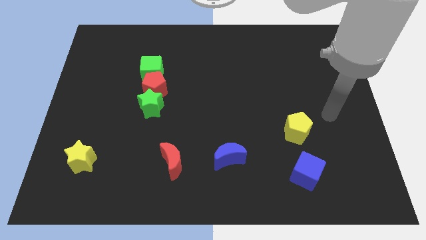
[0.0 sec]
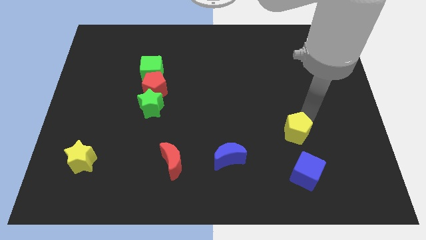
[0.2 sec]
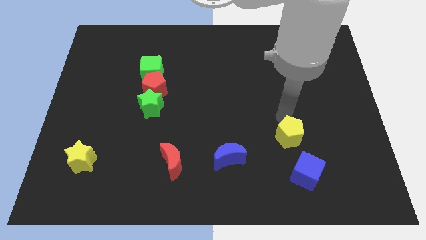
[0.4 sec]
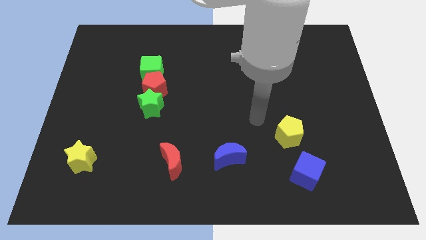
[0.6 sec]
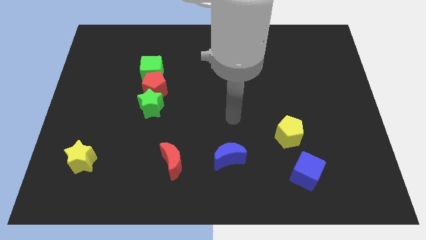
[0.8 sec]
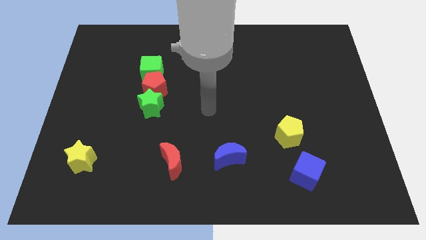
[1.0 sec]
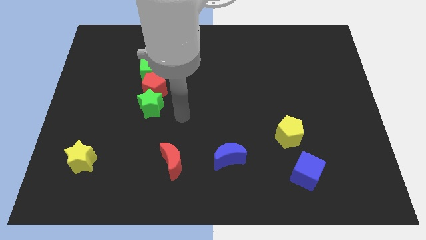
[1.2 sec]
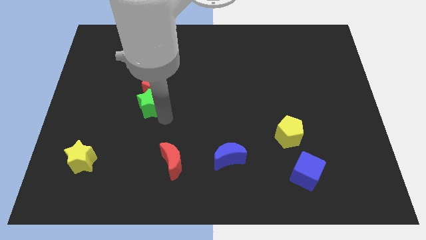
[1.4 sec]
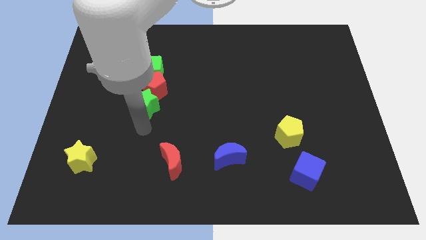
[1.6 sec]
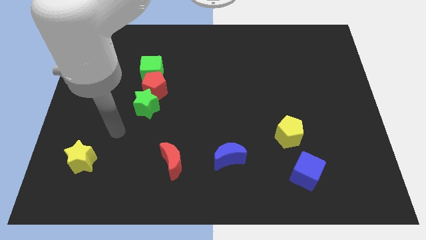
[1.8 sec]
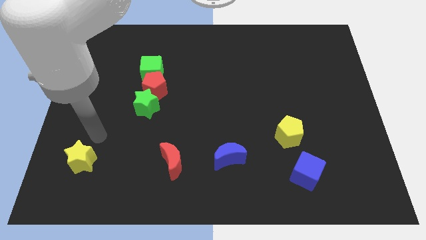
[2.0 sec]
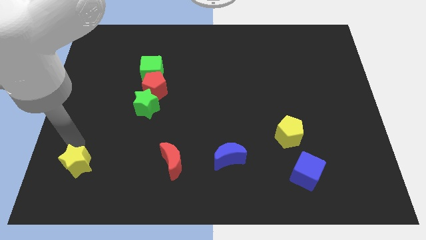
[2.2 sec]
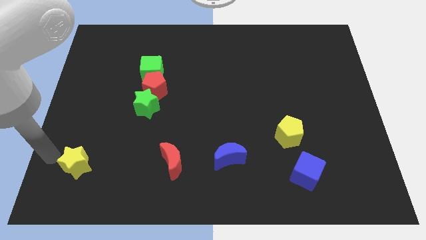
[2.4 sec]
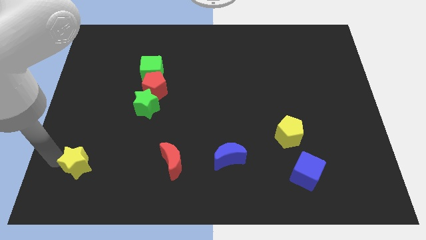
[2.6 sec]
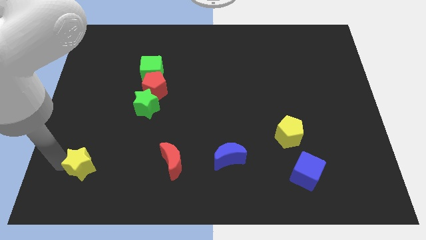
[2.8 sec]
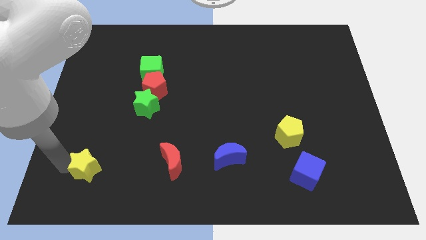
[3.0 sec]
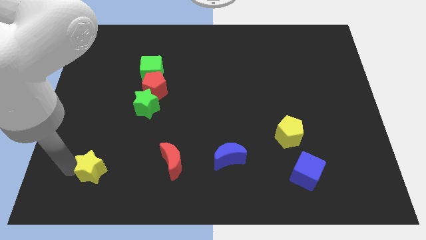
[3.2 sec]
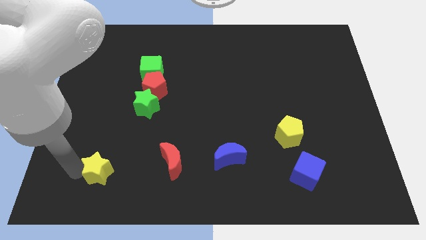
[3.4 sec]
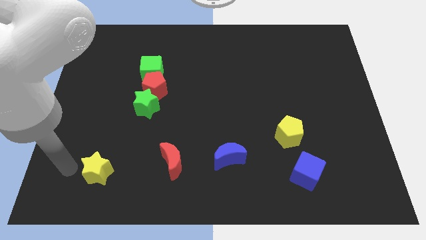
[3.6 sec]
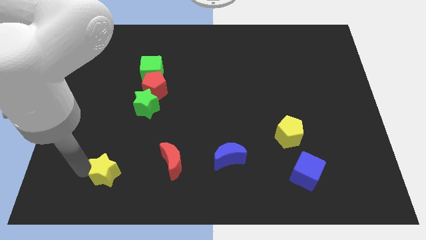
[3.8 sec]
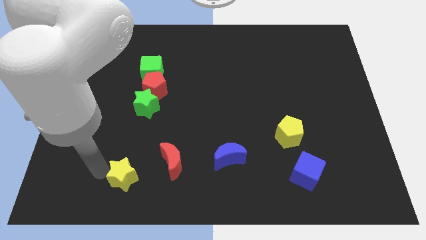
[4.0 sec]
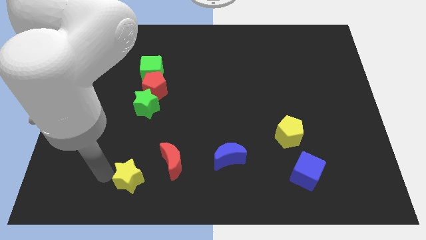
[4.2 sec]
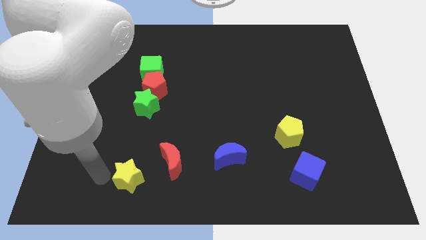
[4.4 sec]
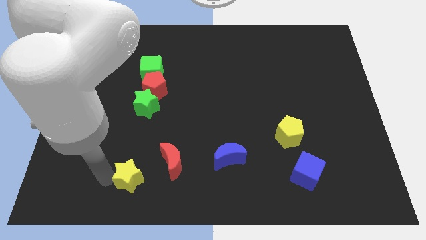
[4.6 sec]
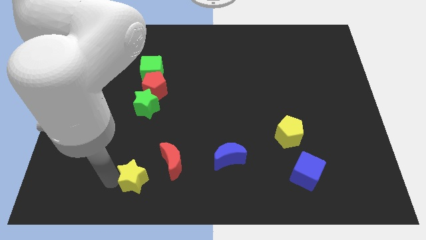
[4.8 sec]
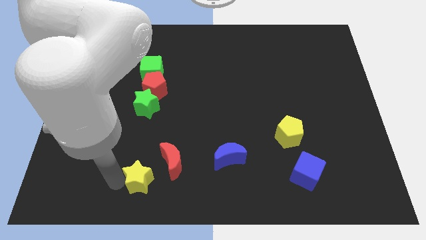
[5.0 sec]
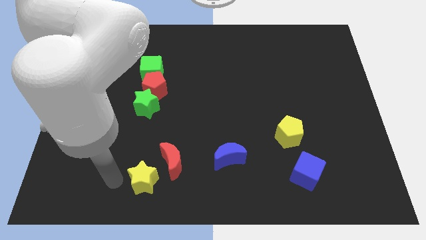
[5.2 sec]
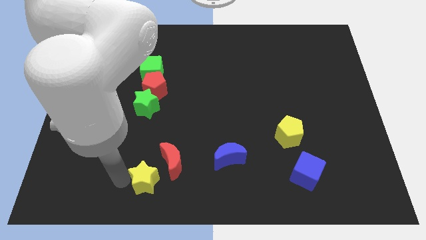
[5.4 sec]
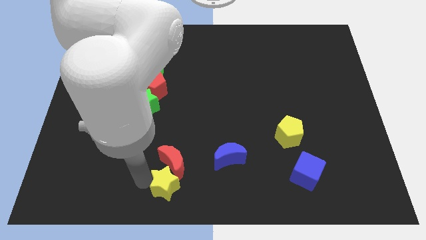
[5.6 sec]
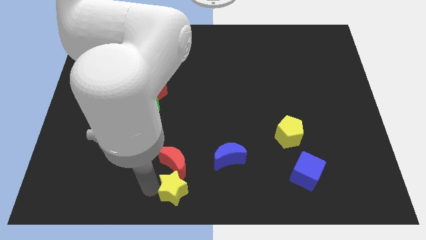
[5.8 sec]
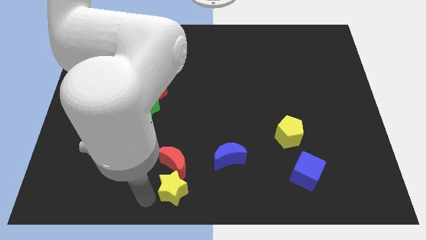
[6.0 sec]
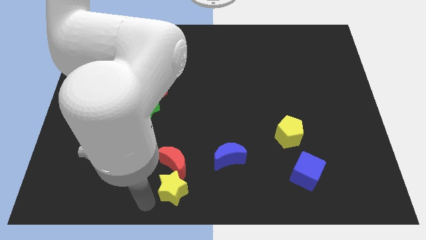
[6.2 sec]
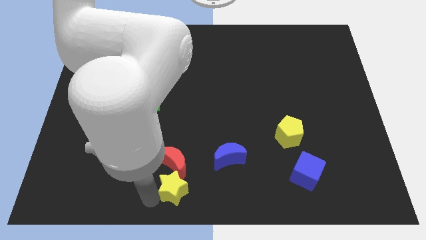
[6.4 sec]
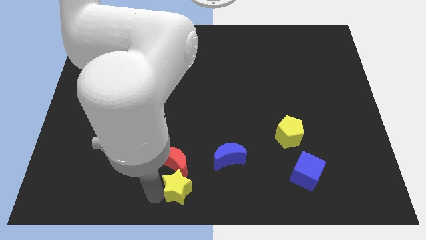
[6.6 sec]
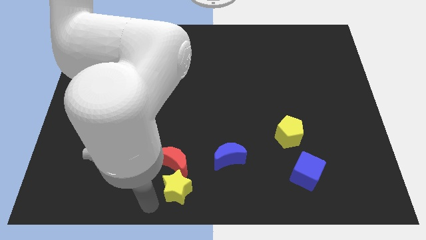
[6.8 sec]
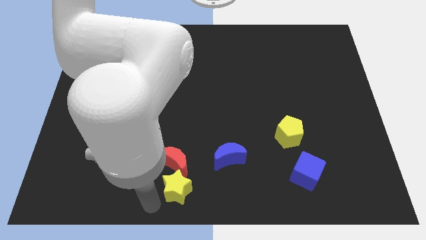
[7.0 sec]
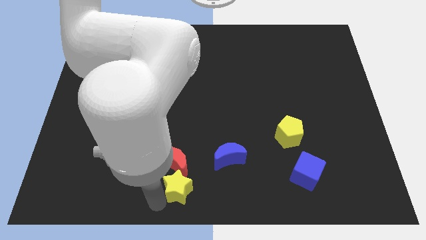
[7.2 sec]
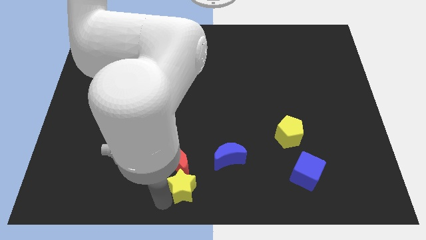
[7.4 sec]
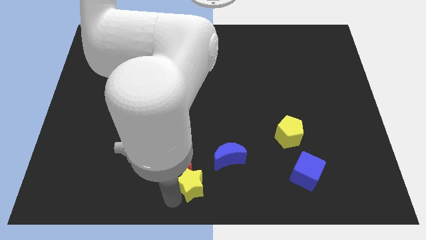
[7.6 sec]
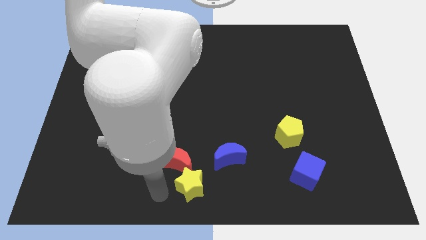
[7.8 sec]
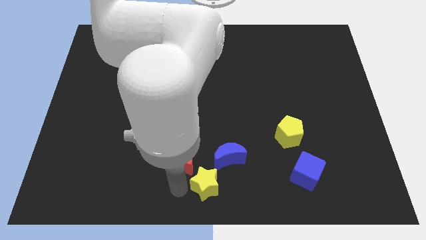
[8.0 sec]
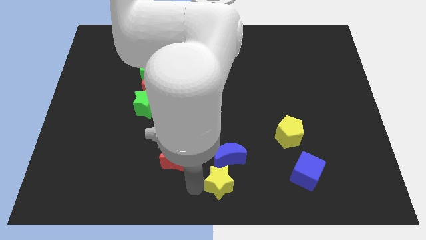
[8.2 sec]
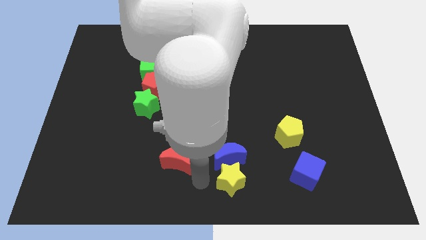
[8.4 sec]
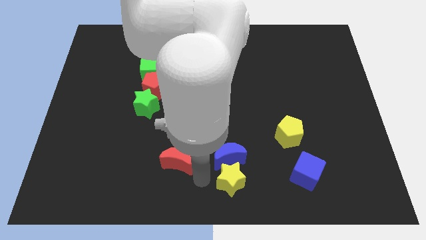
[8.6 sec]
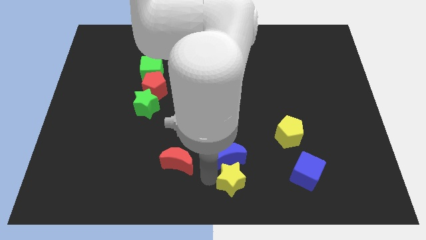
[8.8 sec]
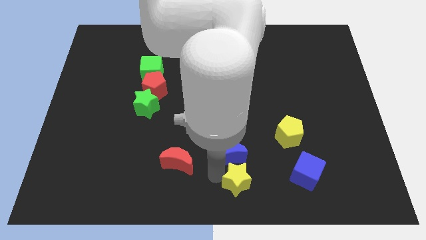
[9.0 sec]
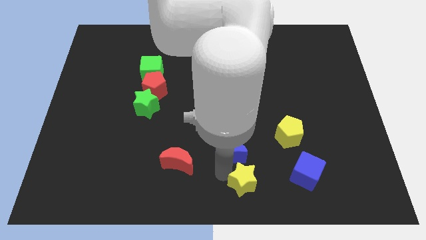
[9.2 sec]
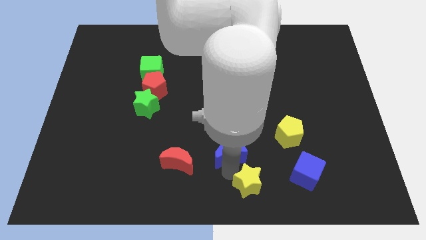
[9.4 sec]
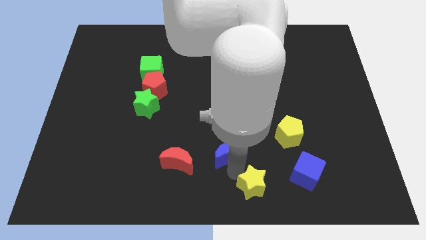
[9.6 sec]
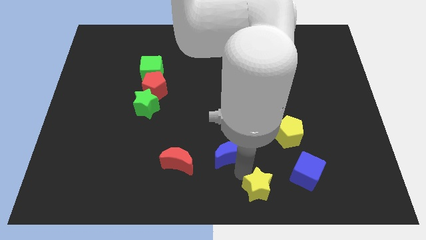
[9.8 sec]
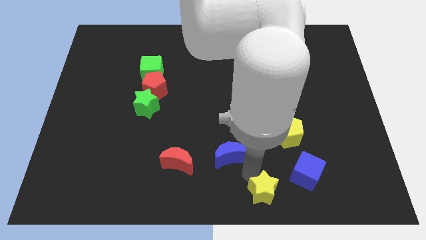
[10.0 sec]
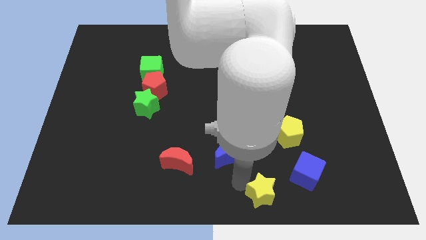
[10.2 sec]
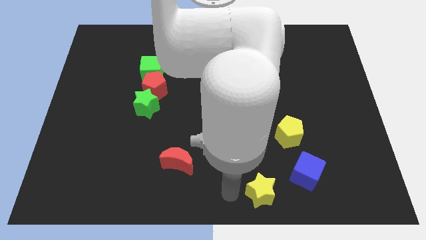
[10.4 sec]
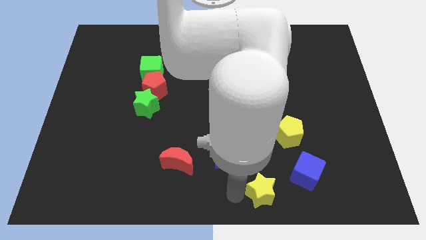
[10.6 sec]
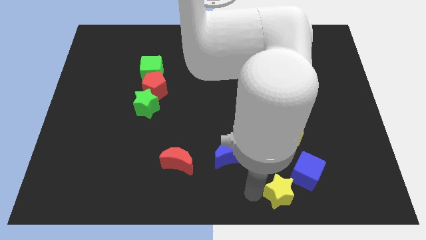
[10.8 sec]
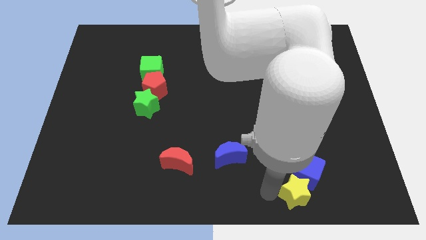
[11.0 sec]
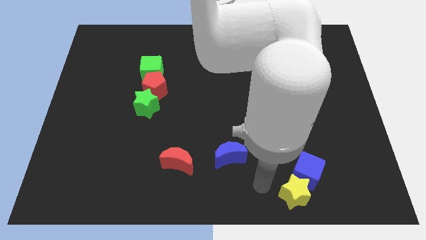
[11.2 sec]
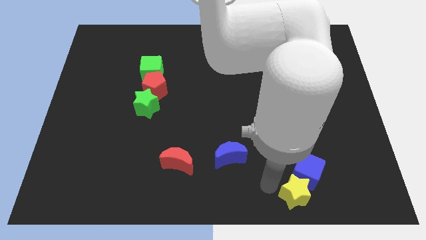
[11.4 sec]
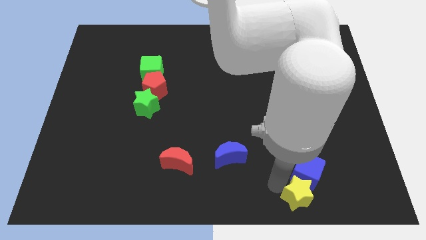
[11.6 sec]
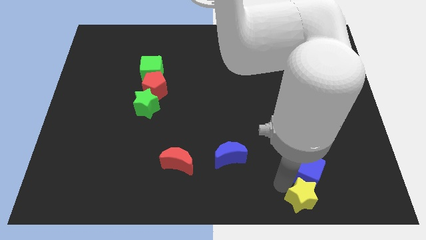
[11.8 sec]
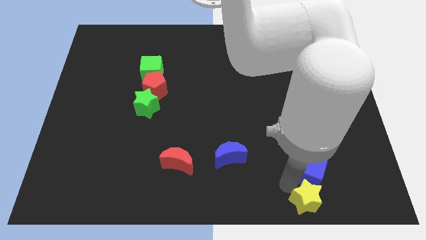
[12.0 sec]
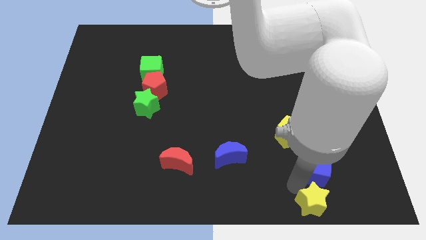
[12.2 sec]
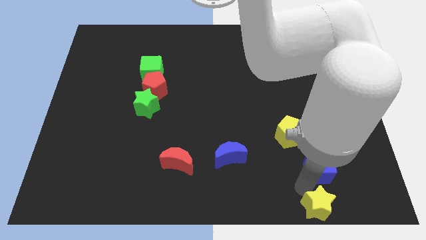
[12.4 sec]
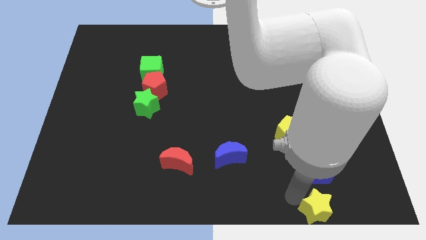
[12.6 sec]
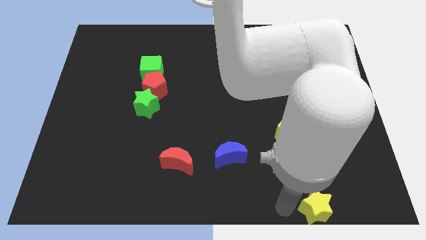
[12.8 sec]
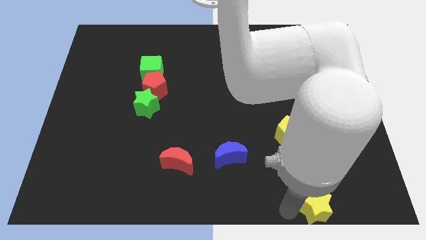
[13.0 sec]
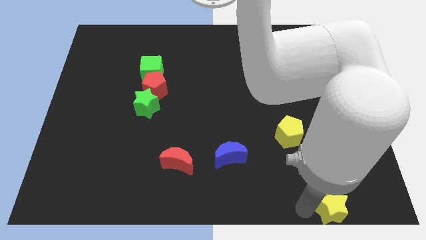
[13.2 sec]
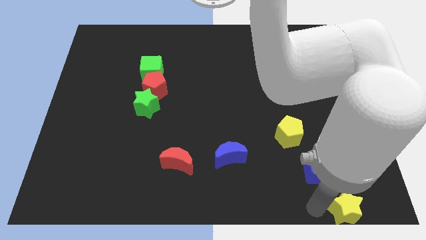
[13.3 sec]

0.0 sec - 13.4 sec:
move the yellow star to the bottom right
